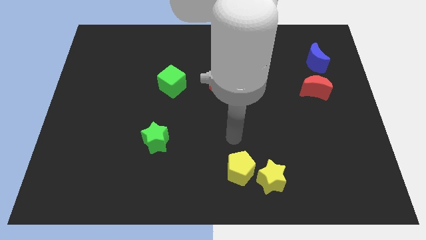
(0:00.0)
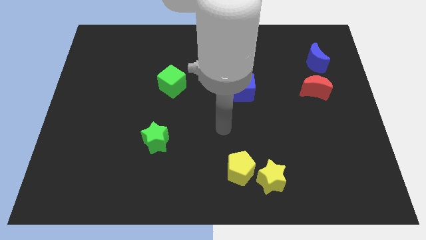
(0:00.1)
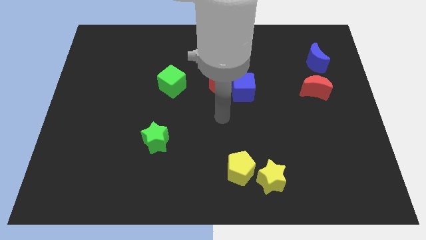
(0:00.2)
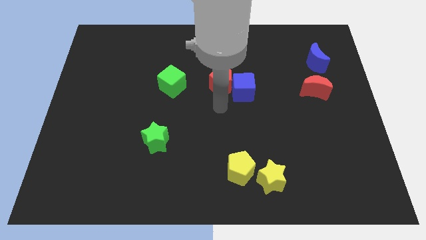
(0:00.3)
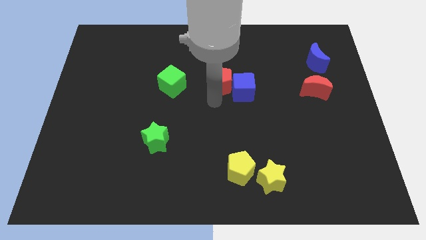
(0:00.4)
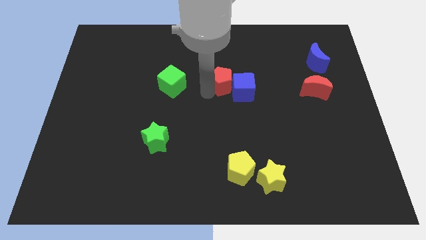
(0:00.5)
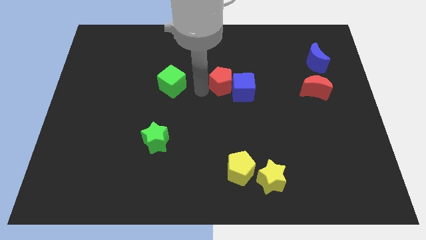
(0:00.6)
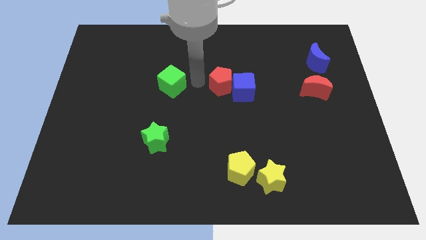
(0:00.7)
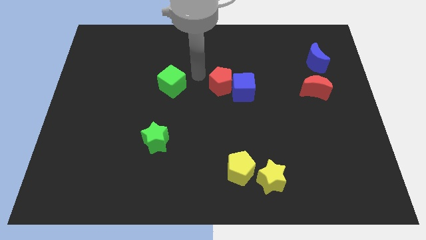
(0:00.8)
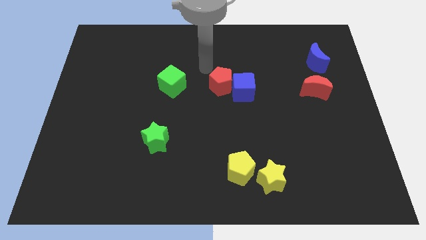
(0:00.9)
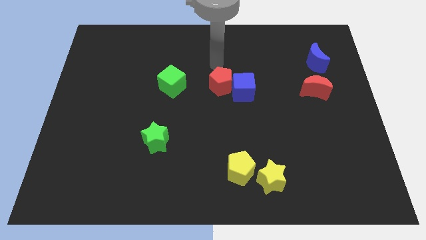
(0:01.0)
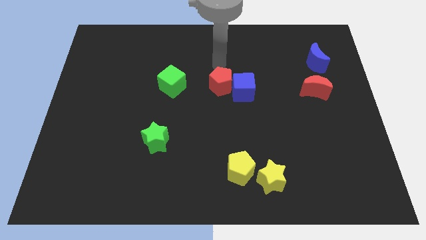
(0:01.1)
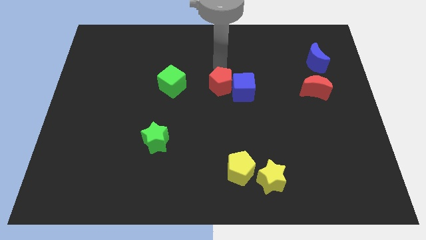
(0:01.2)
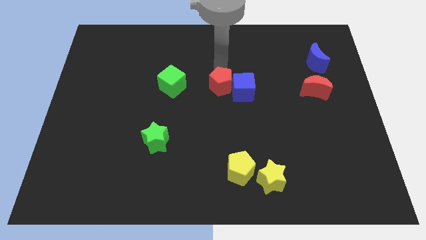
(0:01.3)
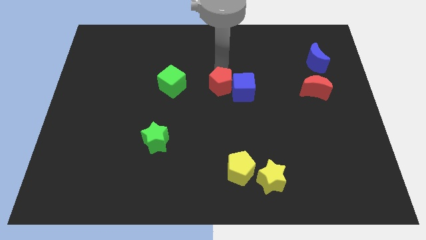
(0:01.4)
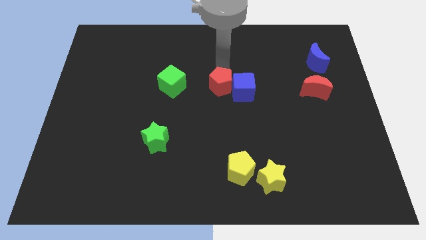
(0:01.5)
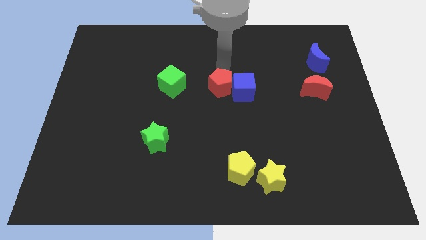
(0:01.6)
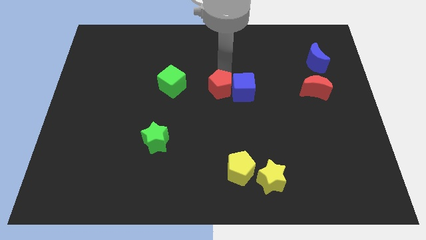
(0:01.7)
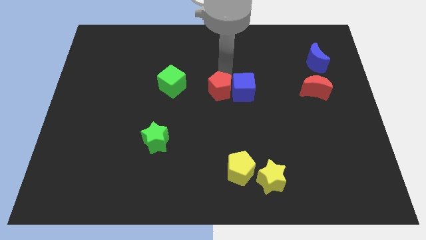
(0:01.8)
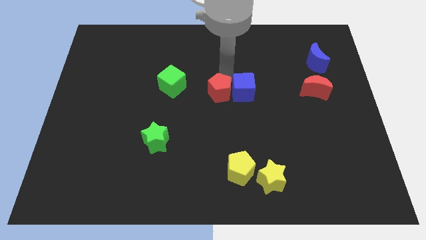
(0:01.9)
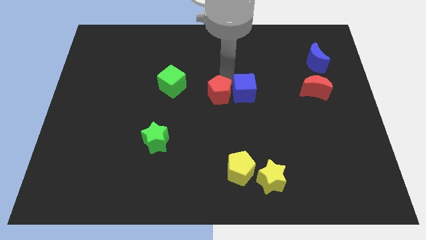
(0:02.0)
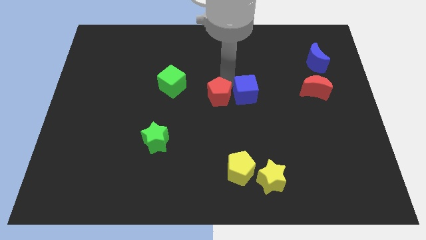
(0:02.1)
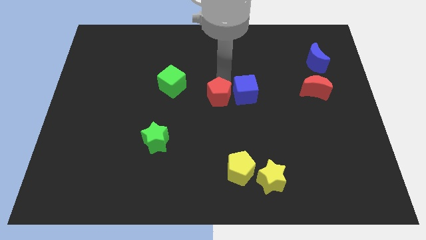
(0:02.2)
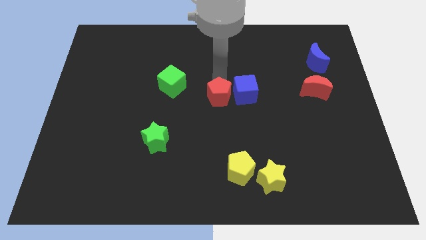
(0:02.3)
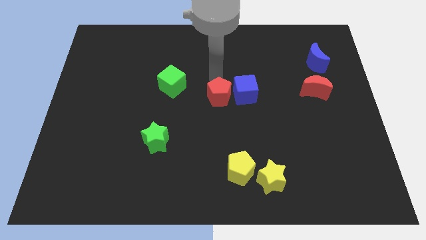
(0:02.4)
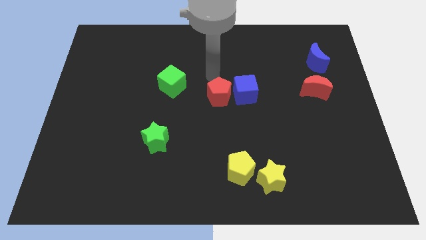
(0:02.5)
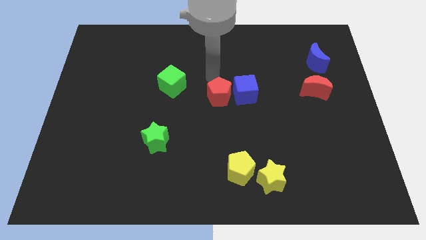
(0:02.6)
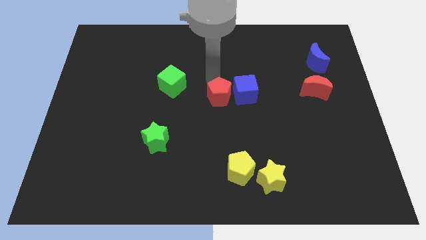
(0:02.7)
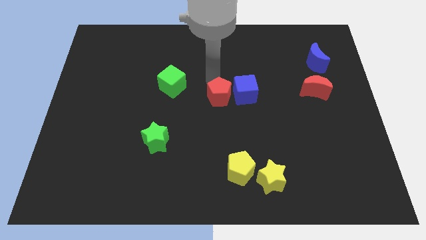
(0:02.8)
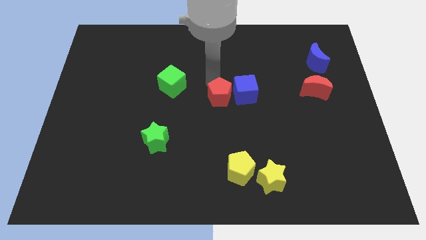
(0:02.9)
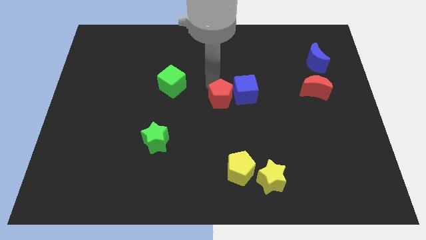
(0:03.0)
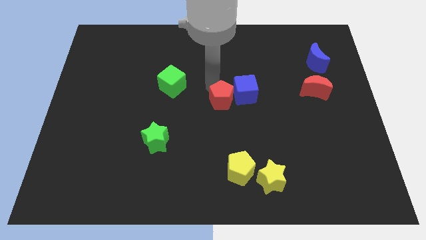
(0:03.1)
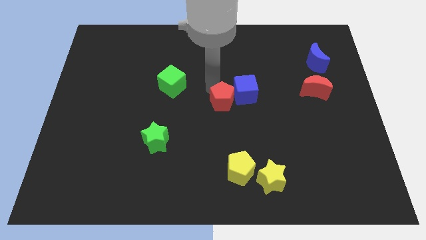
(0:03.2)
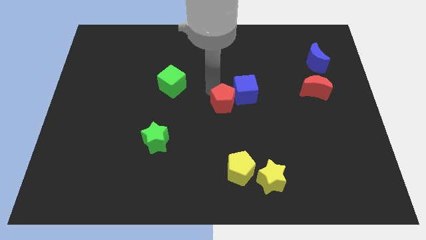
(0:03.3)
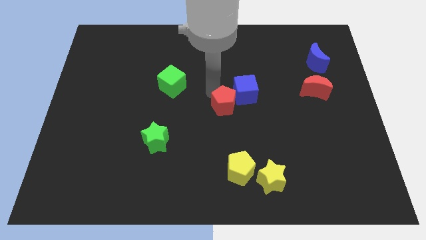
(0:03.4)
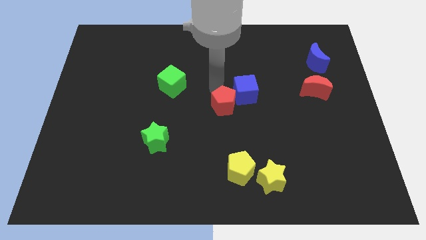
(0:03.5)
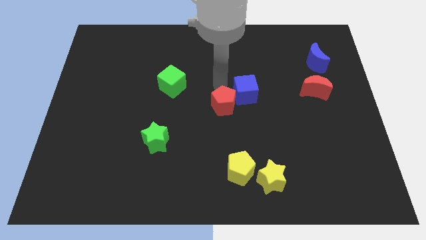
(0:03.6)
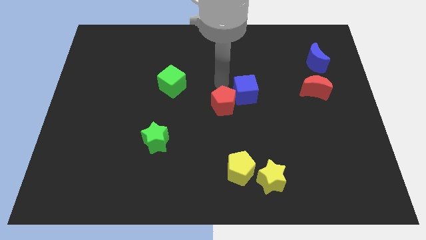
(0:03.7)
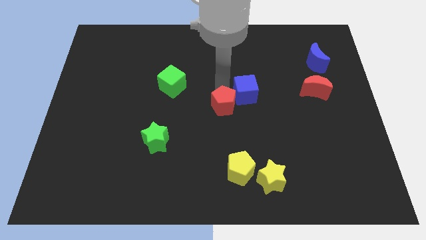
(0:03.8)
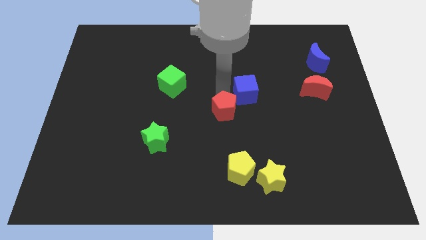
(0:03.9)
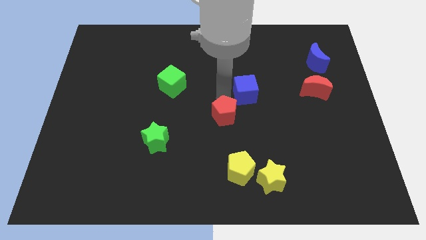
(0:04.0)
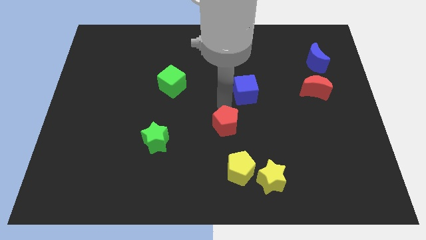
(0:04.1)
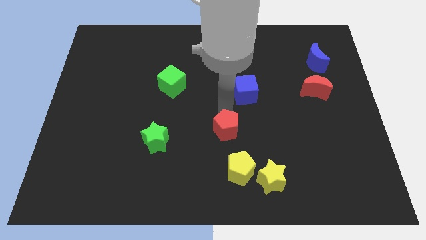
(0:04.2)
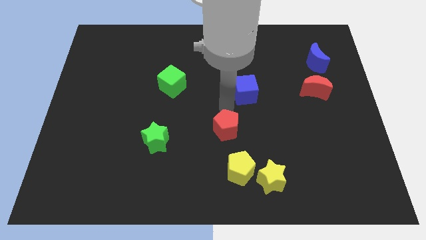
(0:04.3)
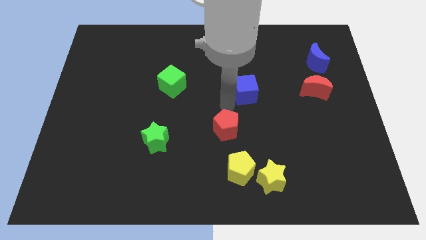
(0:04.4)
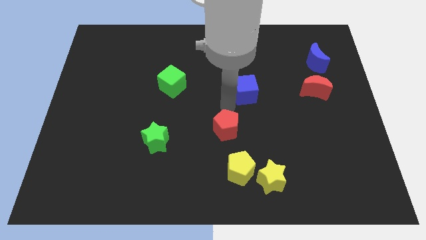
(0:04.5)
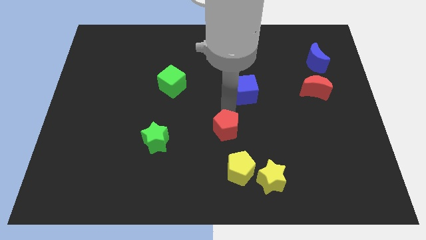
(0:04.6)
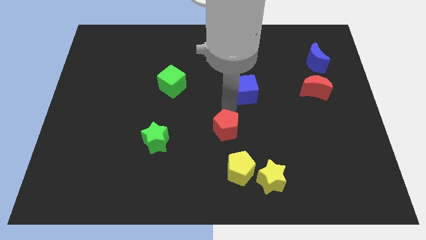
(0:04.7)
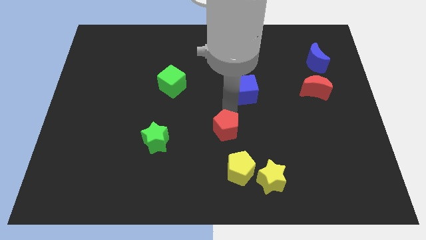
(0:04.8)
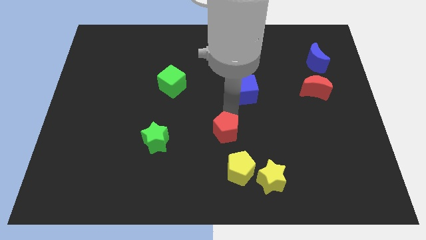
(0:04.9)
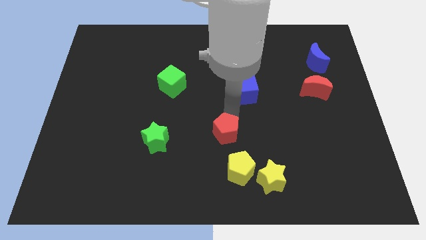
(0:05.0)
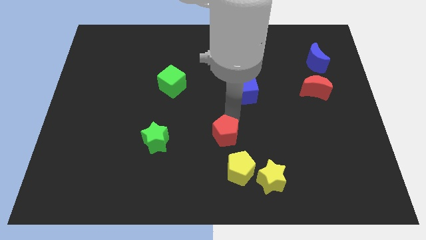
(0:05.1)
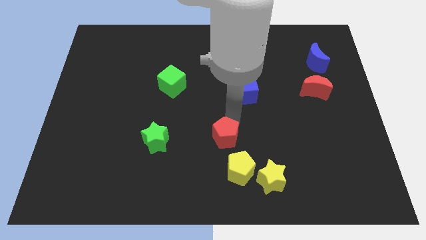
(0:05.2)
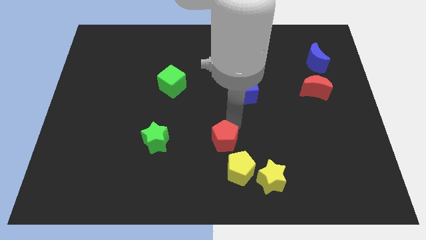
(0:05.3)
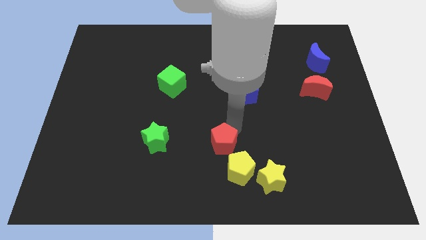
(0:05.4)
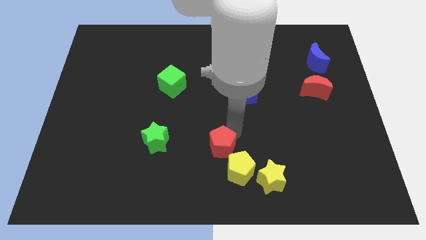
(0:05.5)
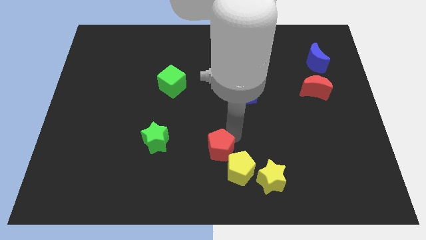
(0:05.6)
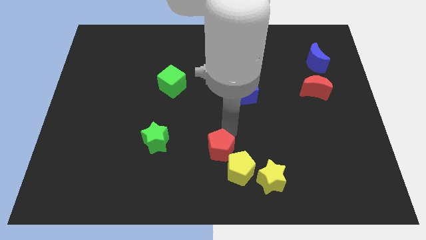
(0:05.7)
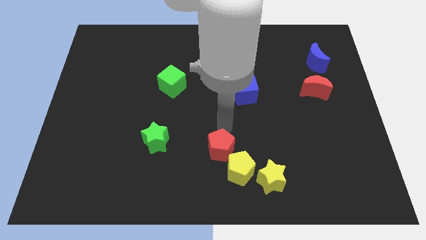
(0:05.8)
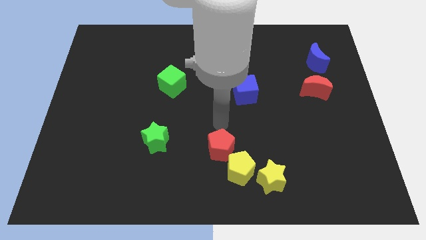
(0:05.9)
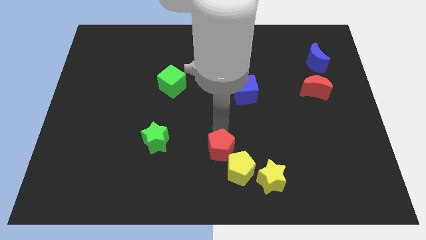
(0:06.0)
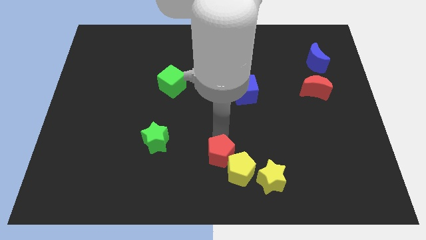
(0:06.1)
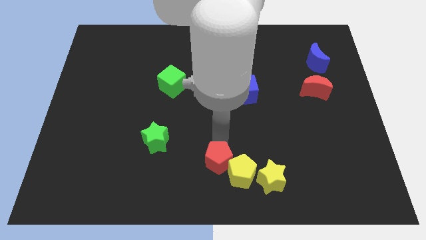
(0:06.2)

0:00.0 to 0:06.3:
move the red pentagon left of the yellow star

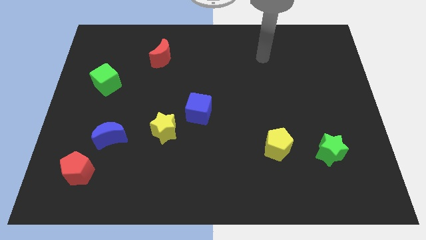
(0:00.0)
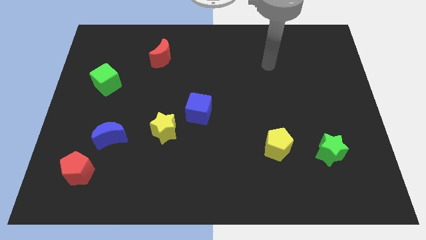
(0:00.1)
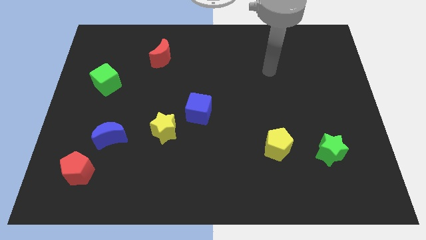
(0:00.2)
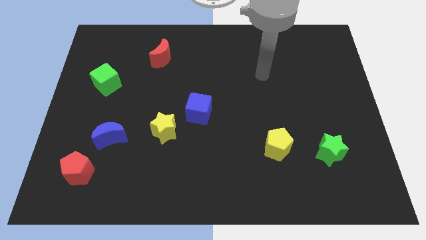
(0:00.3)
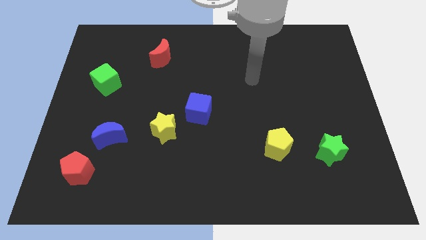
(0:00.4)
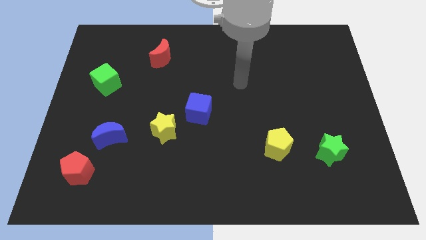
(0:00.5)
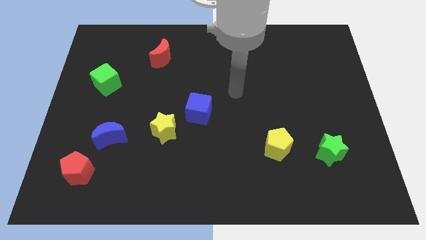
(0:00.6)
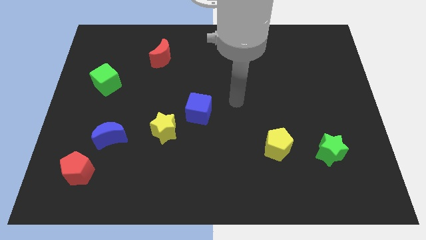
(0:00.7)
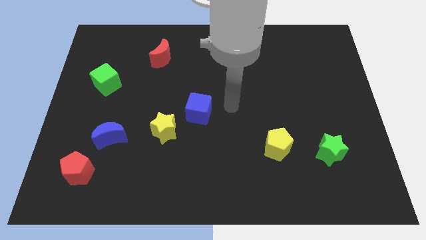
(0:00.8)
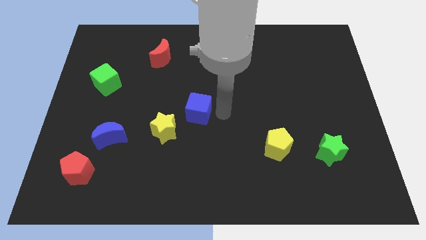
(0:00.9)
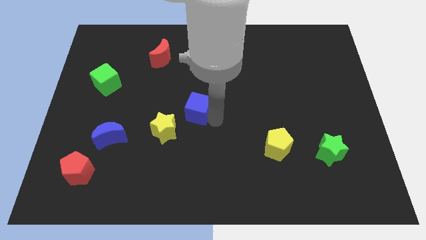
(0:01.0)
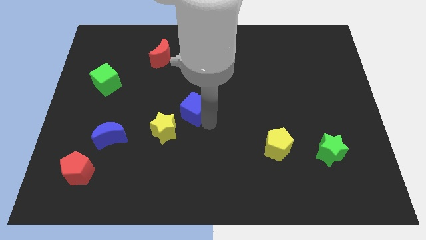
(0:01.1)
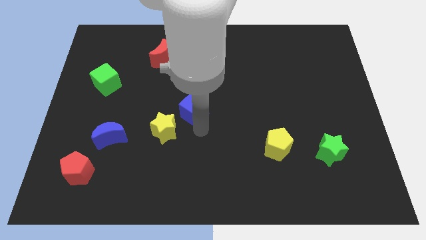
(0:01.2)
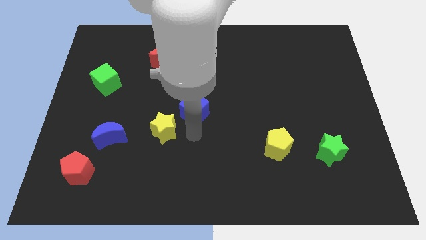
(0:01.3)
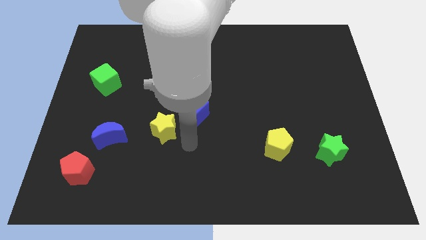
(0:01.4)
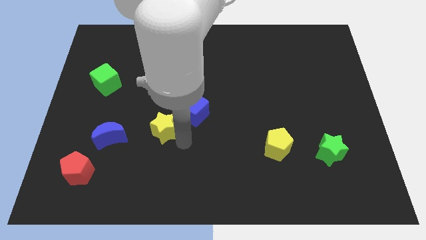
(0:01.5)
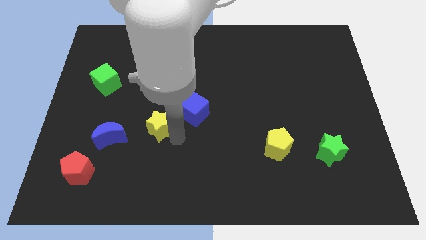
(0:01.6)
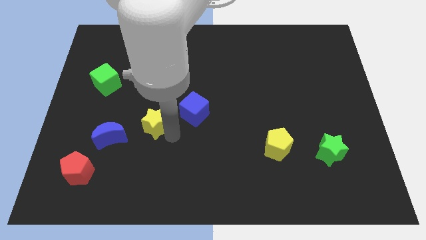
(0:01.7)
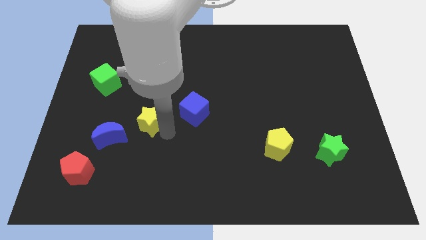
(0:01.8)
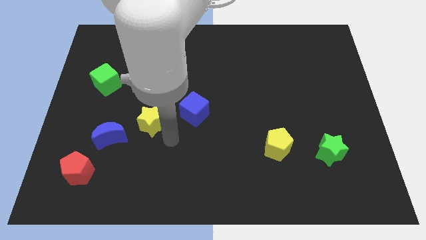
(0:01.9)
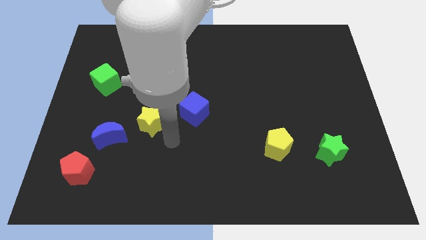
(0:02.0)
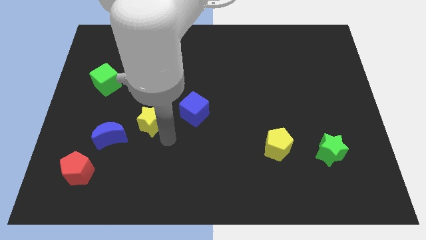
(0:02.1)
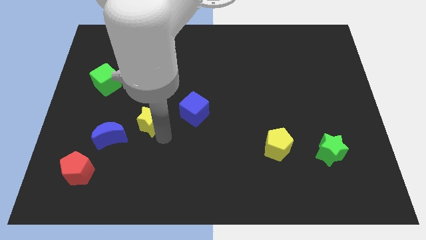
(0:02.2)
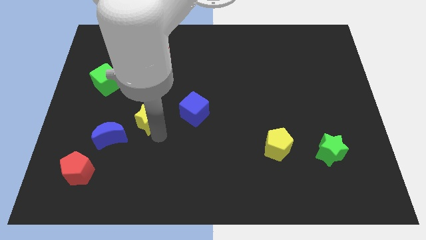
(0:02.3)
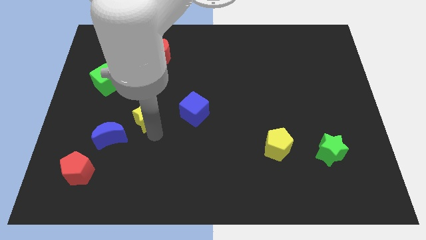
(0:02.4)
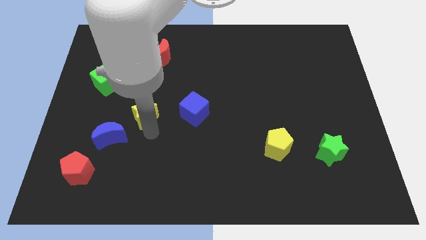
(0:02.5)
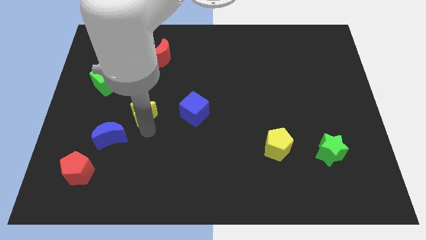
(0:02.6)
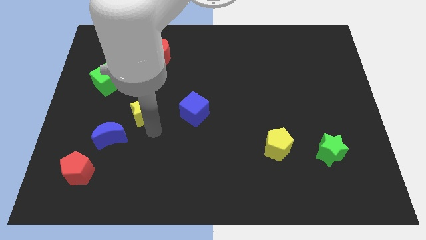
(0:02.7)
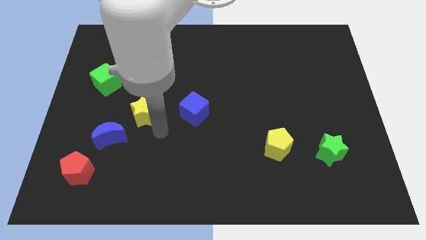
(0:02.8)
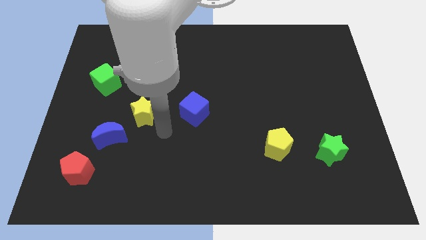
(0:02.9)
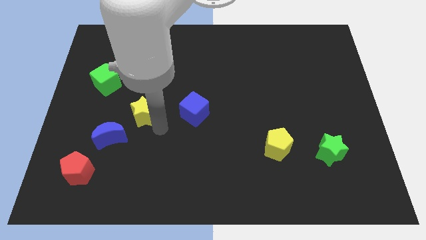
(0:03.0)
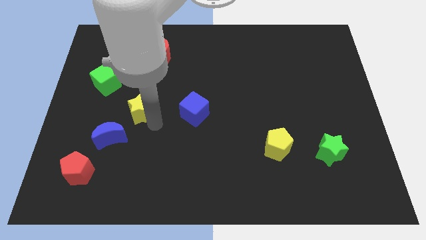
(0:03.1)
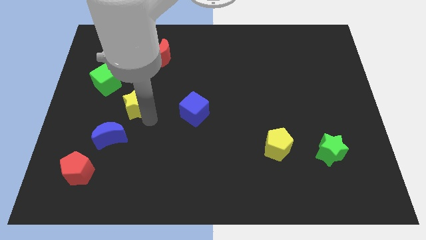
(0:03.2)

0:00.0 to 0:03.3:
slide the yellow star diagonally down and to the right of the green cube
